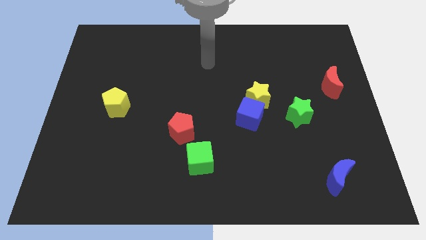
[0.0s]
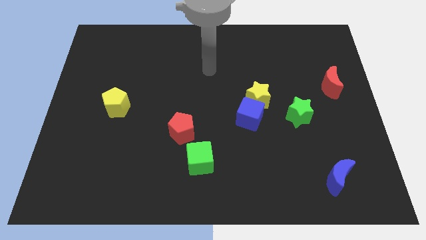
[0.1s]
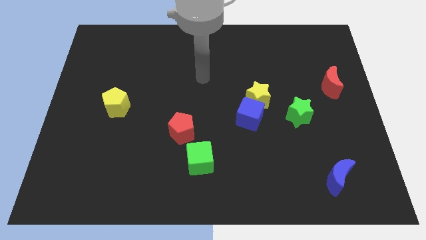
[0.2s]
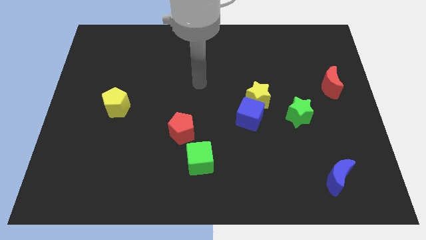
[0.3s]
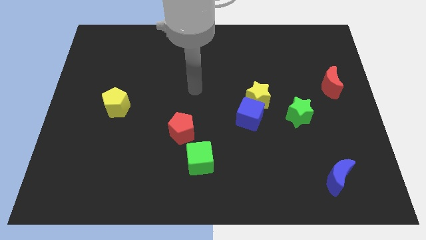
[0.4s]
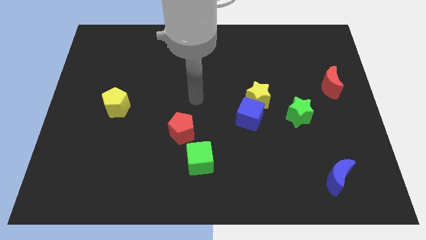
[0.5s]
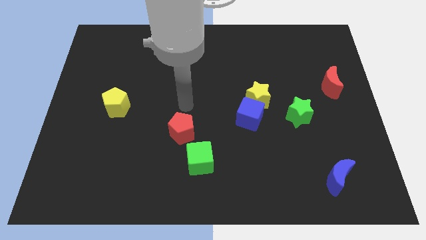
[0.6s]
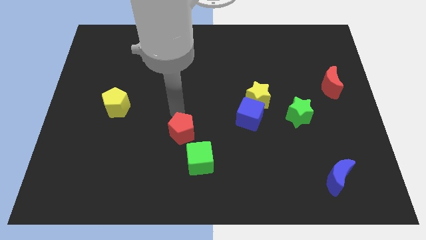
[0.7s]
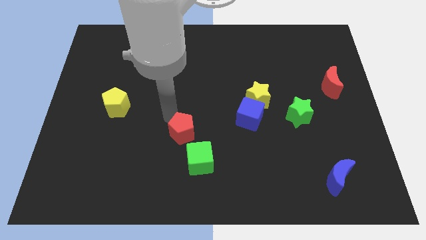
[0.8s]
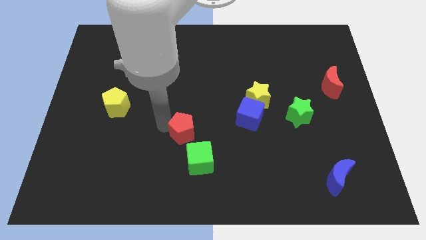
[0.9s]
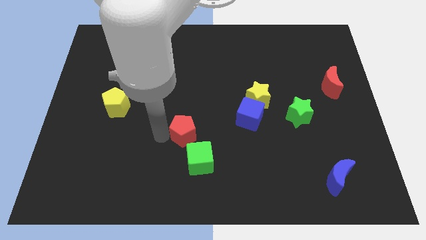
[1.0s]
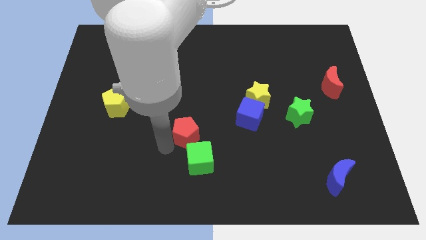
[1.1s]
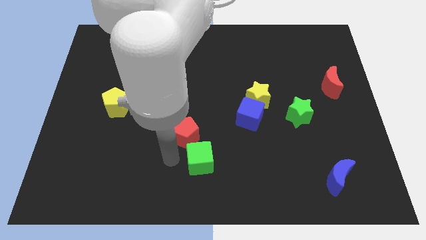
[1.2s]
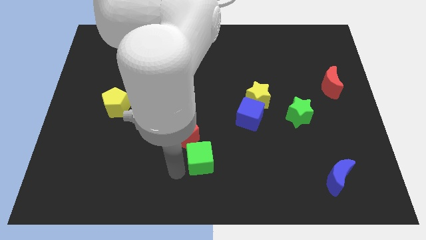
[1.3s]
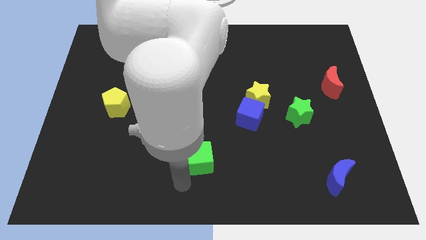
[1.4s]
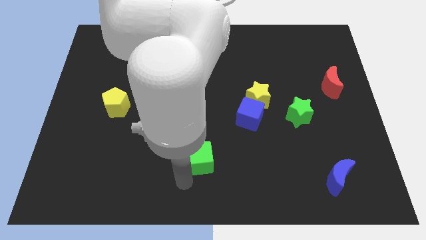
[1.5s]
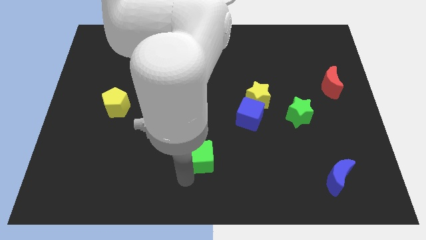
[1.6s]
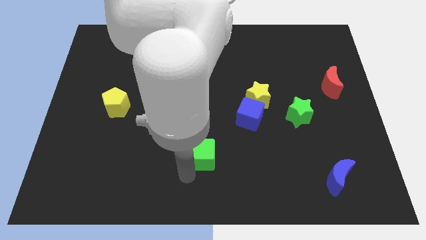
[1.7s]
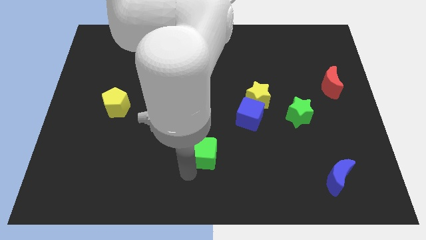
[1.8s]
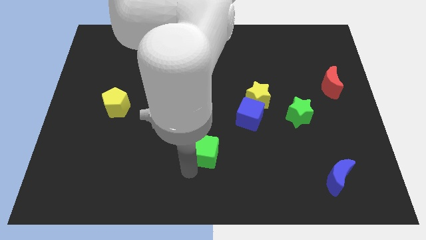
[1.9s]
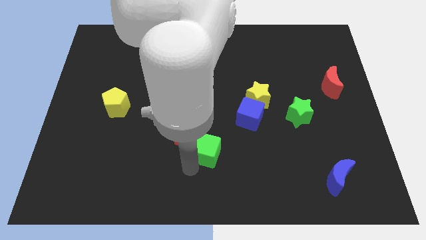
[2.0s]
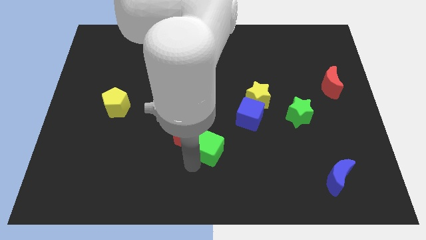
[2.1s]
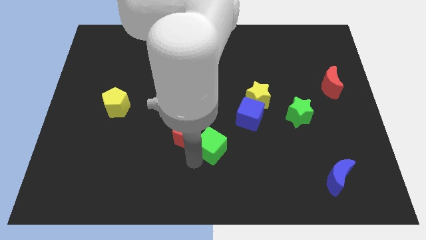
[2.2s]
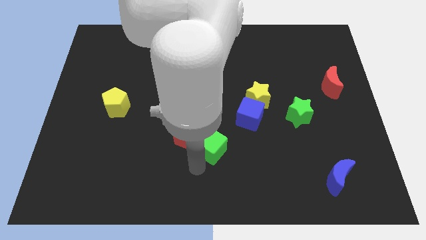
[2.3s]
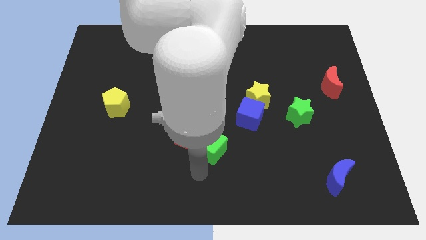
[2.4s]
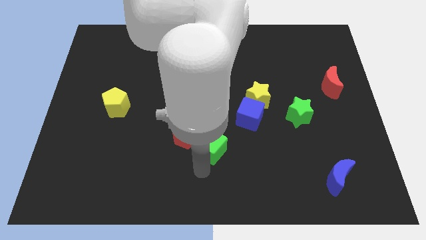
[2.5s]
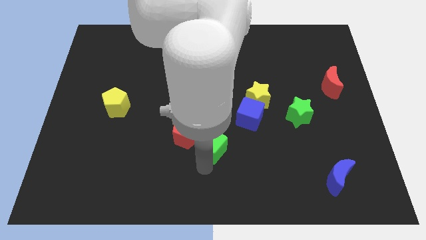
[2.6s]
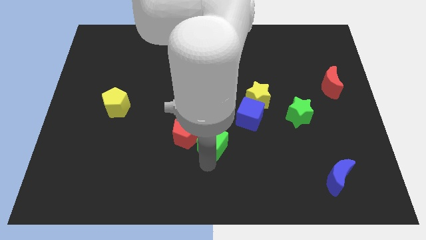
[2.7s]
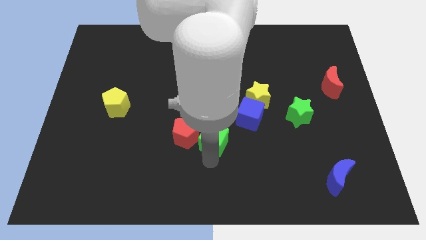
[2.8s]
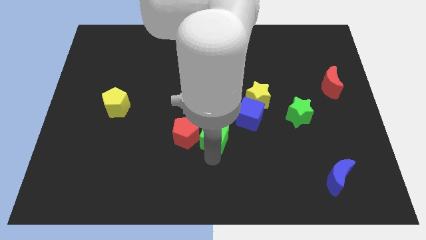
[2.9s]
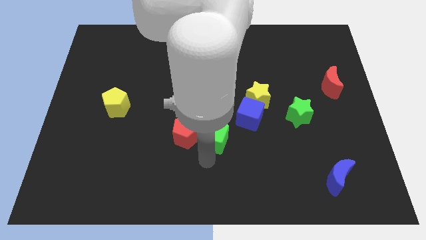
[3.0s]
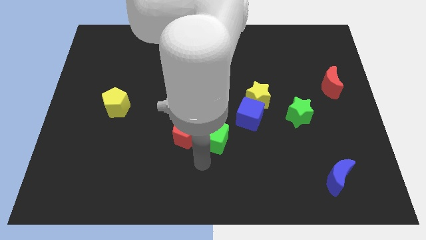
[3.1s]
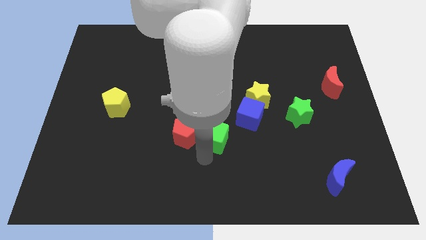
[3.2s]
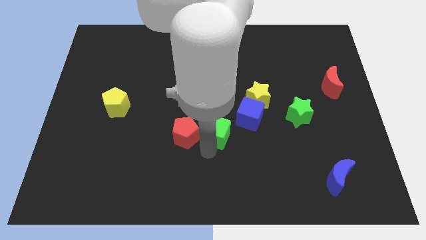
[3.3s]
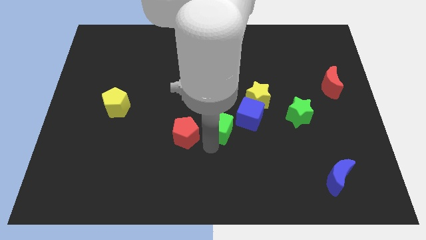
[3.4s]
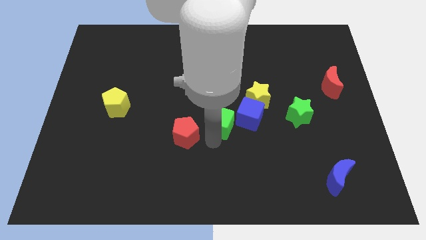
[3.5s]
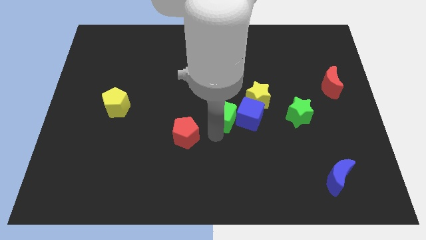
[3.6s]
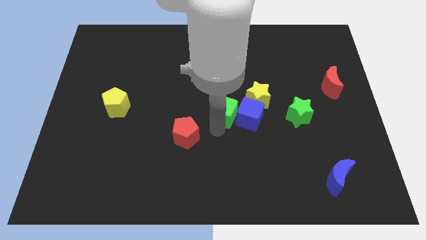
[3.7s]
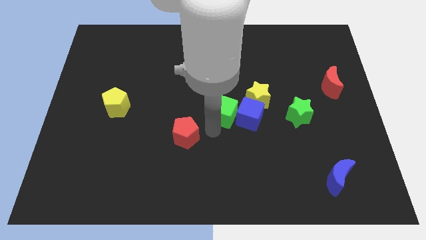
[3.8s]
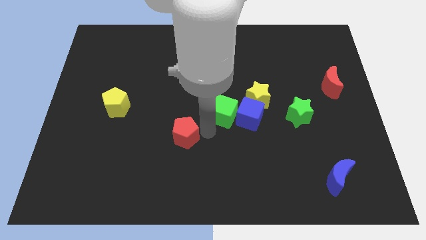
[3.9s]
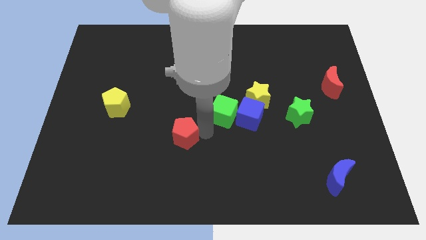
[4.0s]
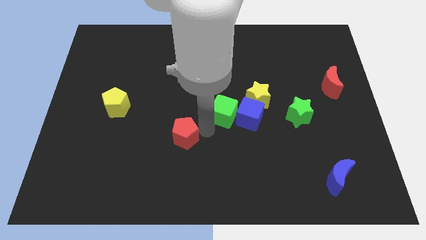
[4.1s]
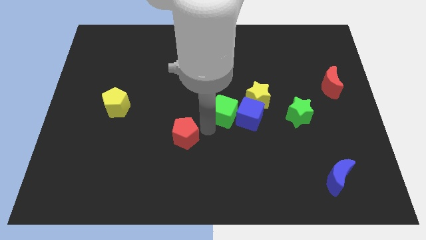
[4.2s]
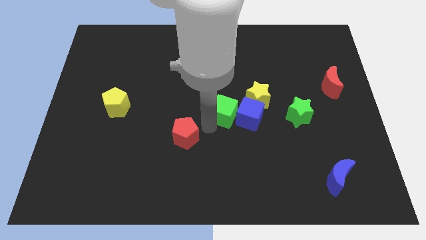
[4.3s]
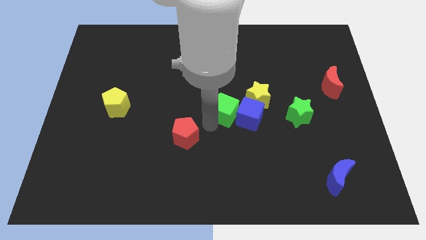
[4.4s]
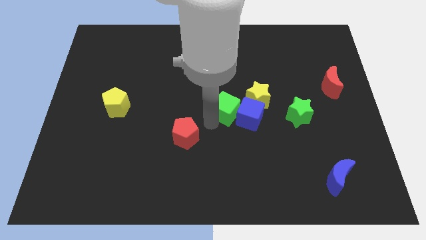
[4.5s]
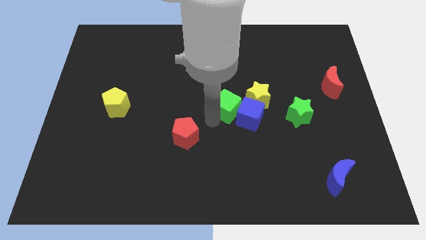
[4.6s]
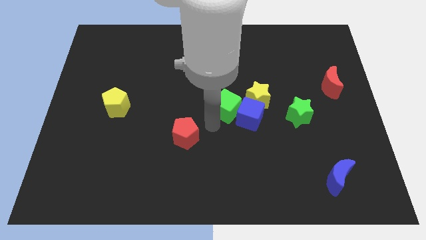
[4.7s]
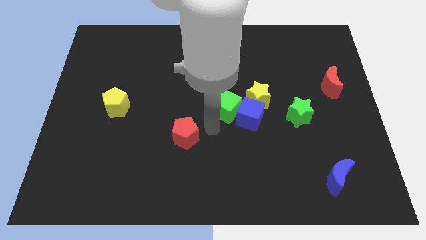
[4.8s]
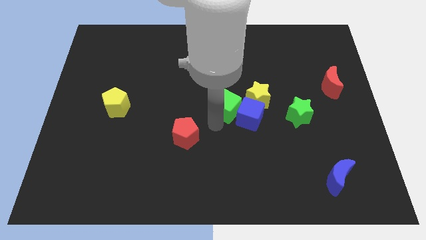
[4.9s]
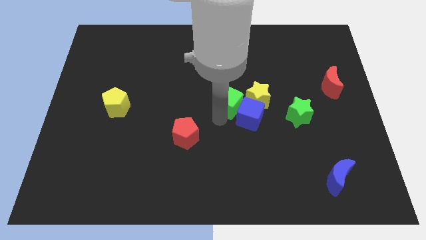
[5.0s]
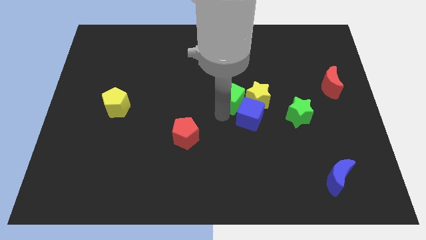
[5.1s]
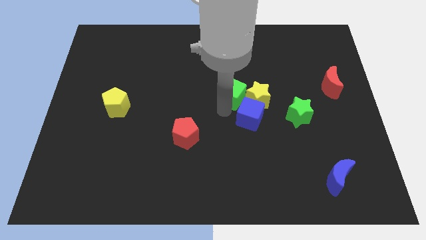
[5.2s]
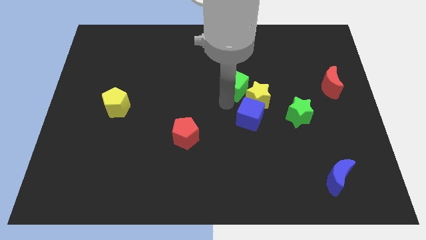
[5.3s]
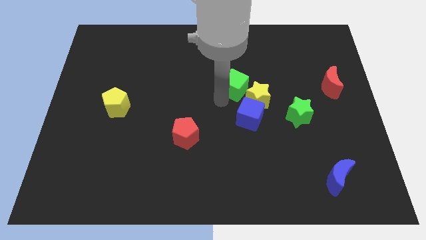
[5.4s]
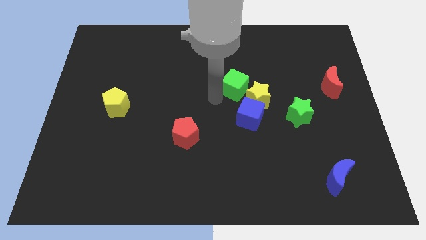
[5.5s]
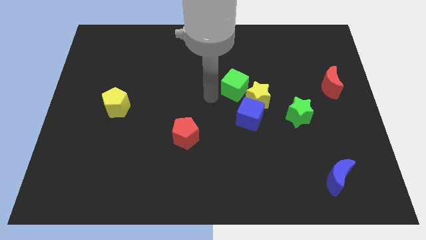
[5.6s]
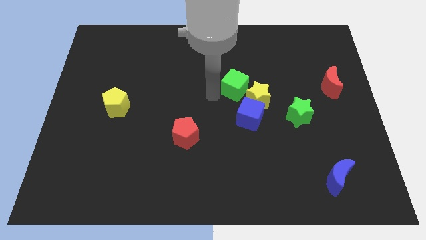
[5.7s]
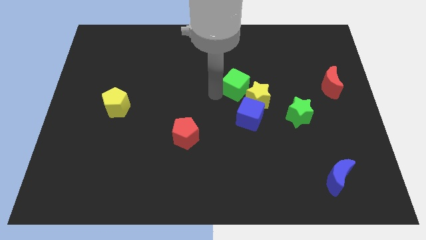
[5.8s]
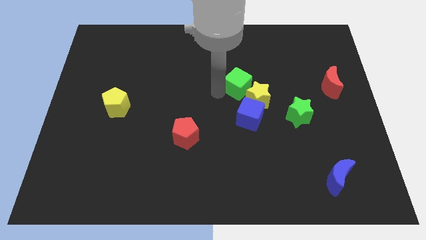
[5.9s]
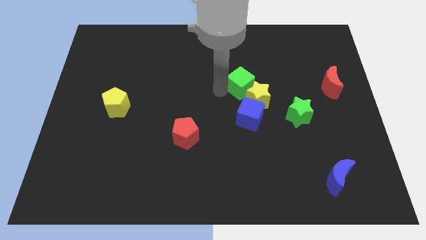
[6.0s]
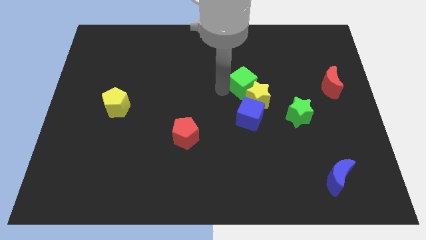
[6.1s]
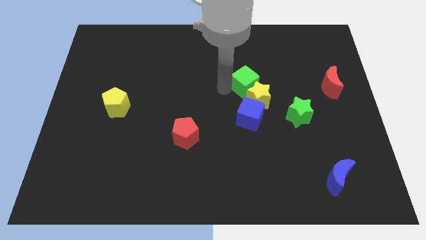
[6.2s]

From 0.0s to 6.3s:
slide the green cube upwards and to the right

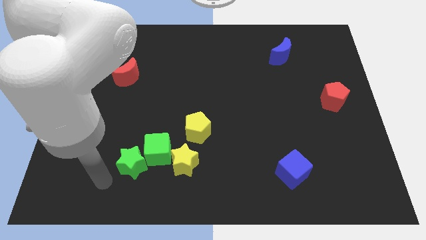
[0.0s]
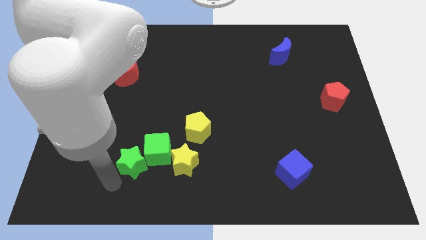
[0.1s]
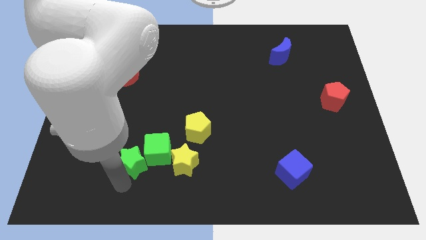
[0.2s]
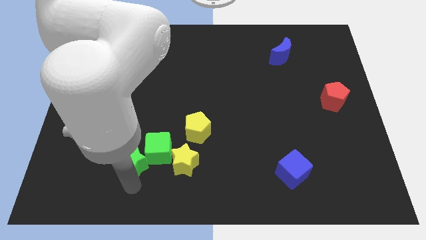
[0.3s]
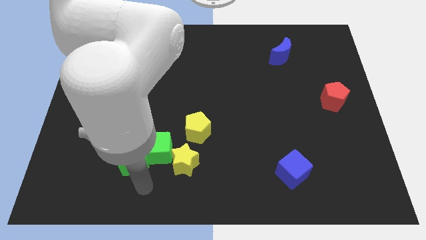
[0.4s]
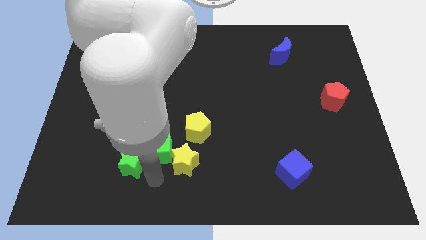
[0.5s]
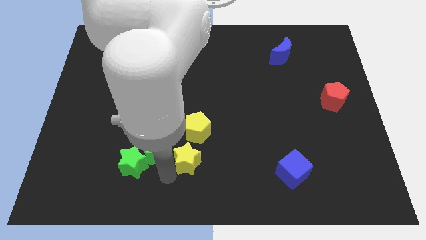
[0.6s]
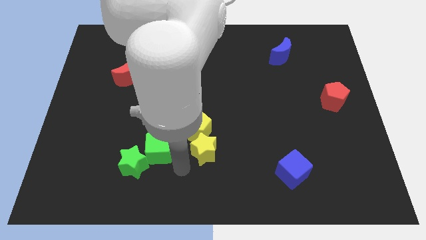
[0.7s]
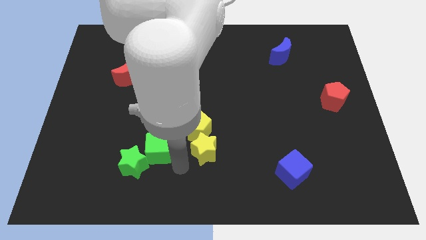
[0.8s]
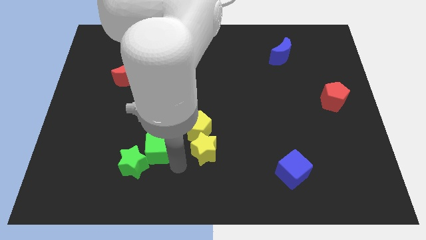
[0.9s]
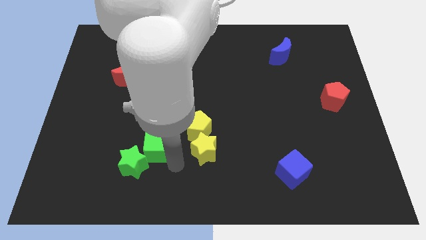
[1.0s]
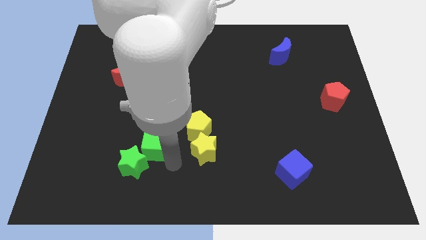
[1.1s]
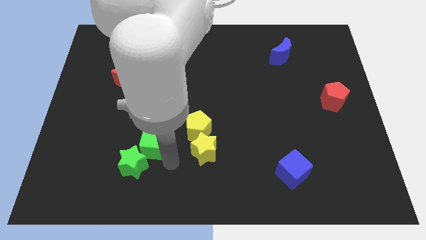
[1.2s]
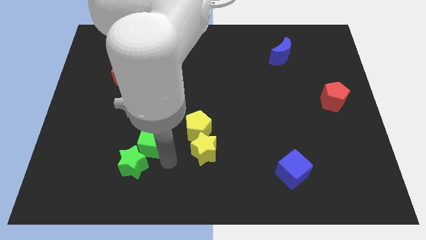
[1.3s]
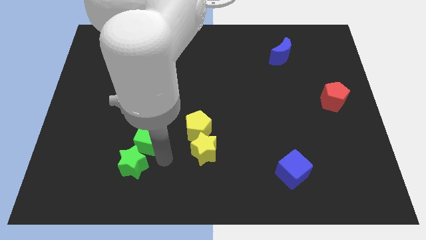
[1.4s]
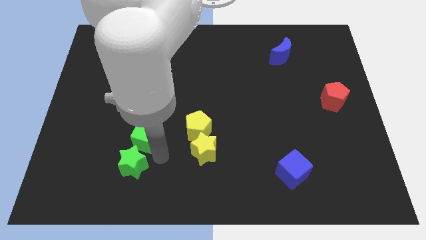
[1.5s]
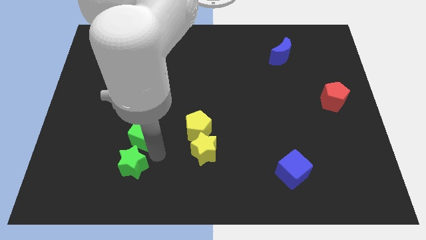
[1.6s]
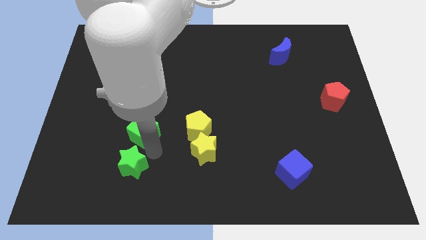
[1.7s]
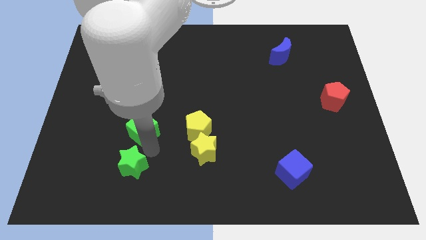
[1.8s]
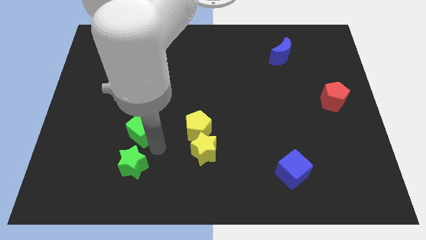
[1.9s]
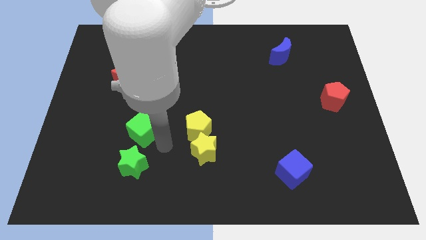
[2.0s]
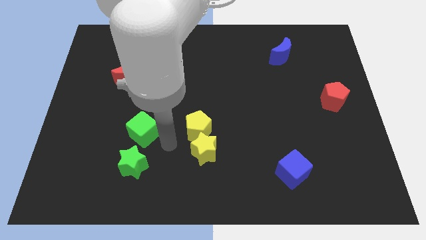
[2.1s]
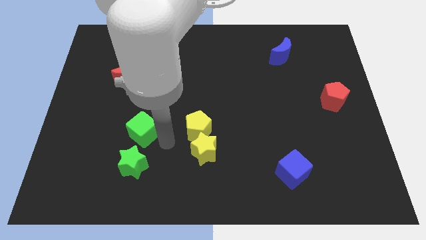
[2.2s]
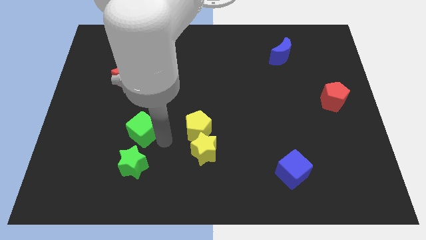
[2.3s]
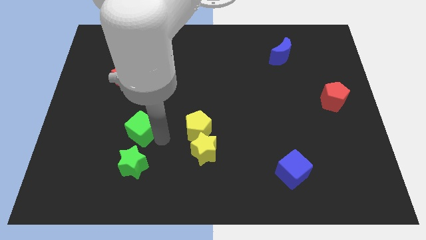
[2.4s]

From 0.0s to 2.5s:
slightly move the green cube diagonally up and to the left
